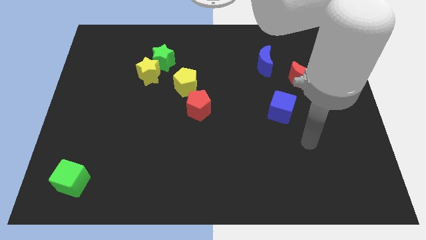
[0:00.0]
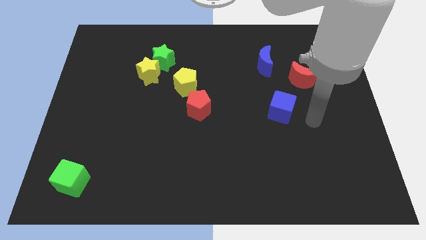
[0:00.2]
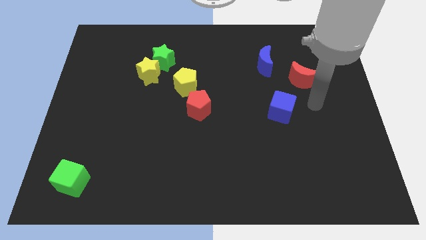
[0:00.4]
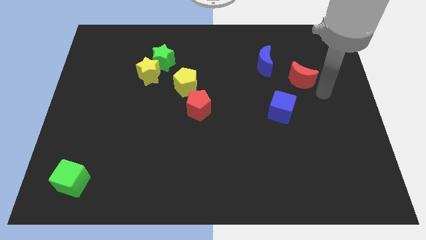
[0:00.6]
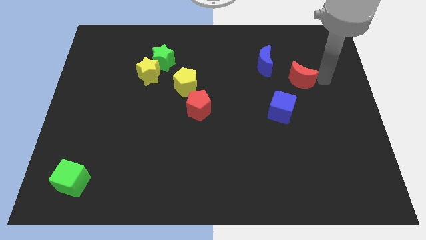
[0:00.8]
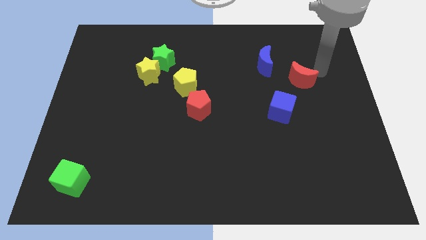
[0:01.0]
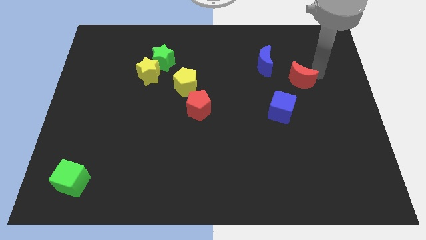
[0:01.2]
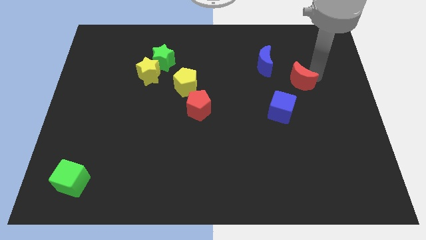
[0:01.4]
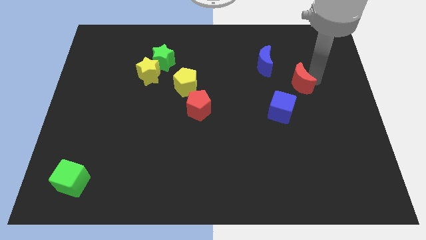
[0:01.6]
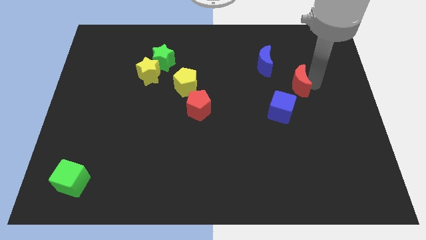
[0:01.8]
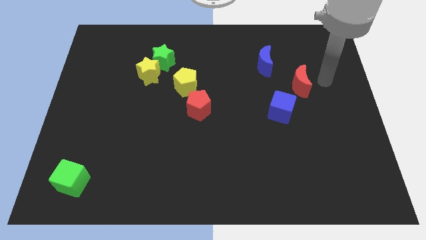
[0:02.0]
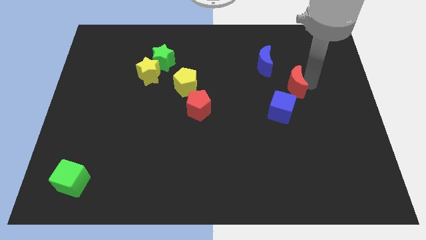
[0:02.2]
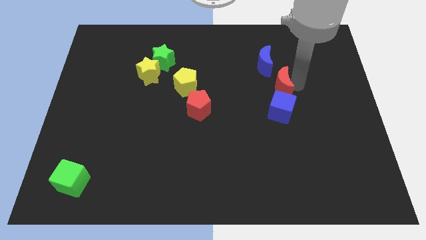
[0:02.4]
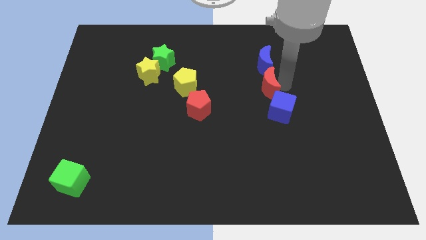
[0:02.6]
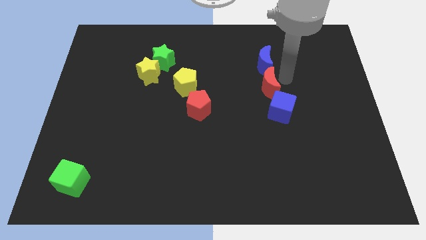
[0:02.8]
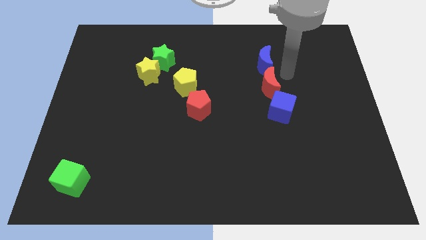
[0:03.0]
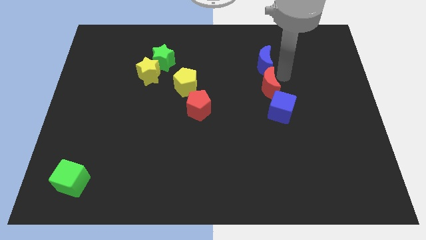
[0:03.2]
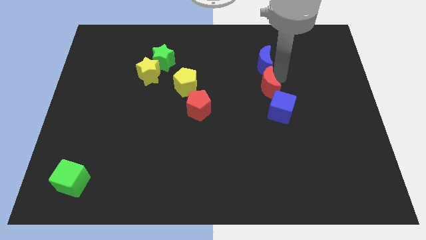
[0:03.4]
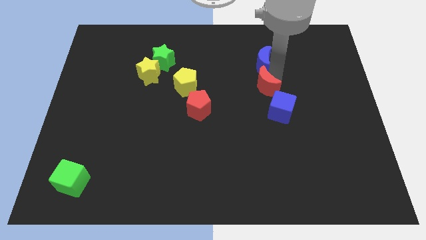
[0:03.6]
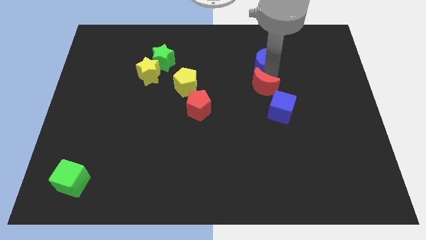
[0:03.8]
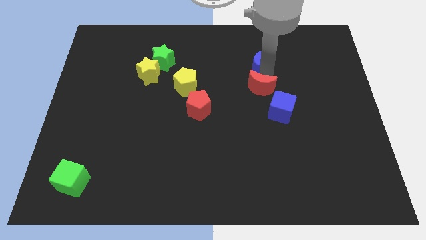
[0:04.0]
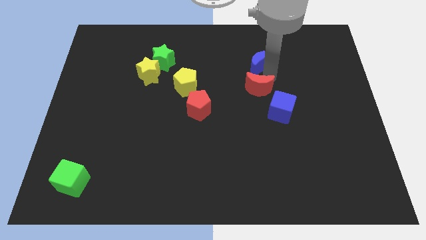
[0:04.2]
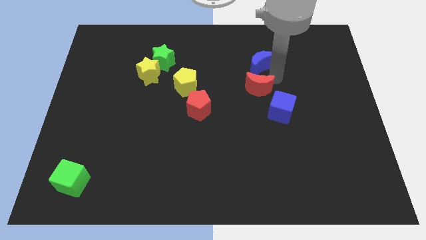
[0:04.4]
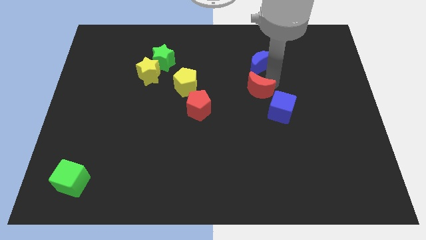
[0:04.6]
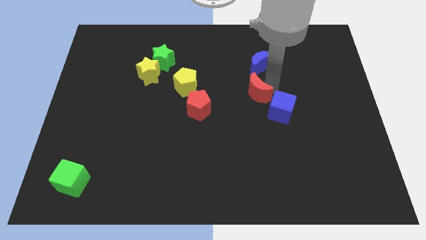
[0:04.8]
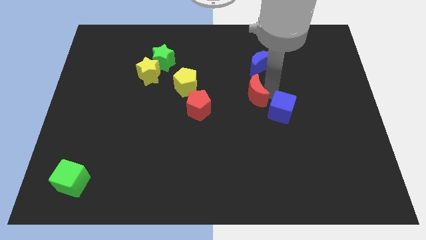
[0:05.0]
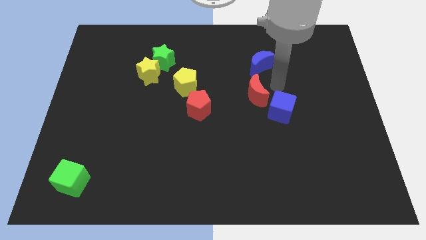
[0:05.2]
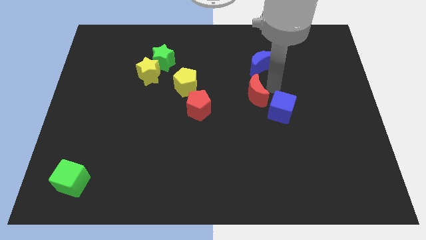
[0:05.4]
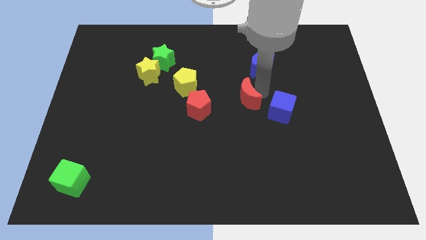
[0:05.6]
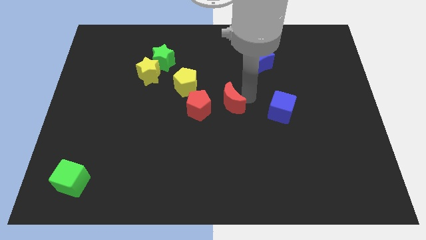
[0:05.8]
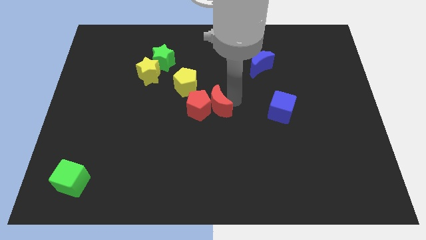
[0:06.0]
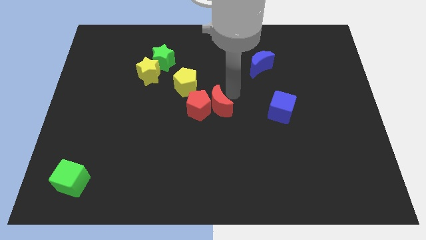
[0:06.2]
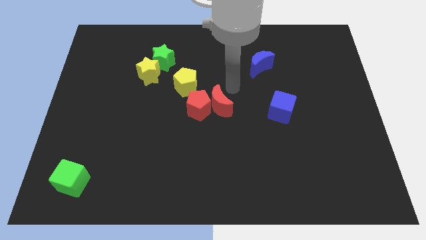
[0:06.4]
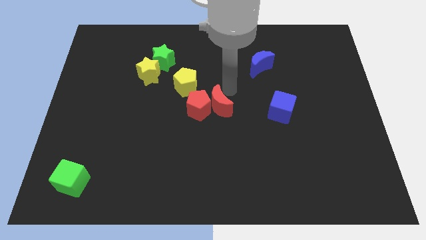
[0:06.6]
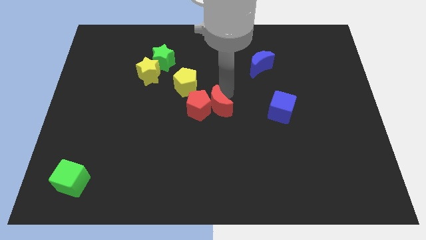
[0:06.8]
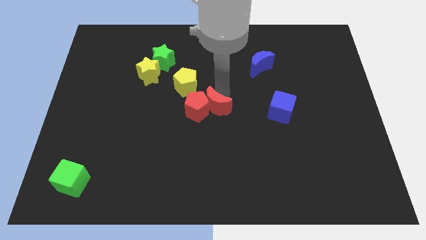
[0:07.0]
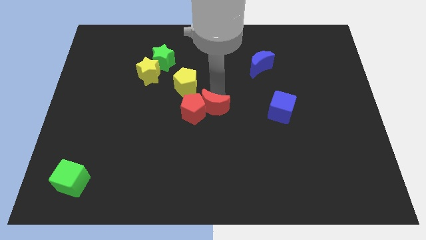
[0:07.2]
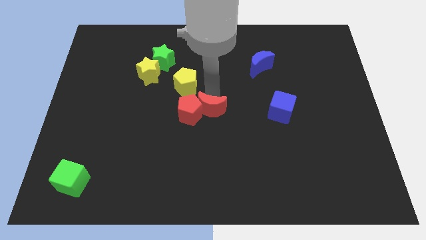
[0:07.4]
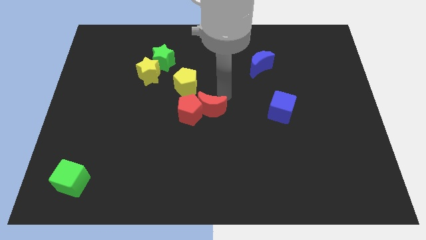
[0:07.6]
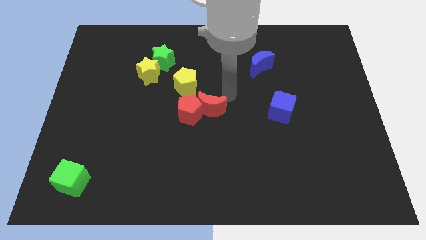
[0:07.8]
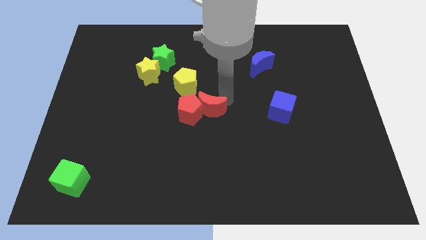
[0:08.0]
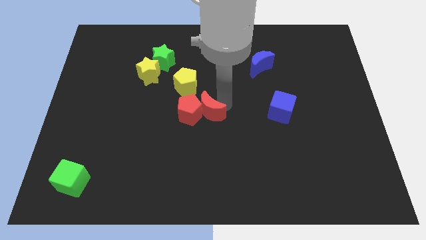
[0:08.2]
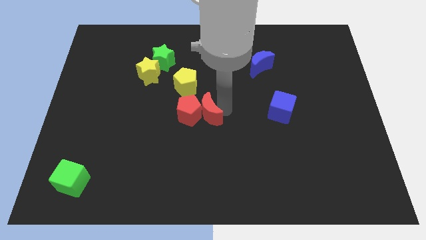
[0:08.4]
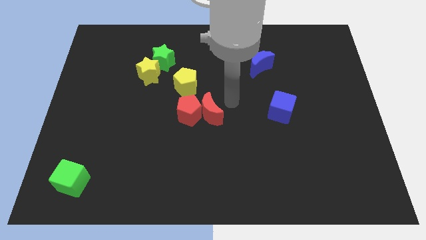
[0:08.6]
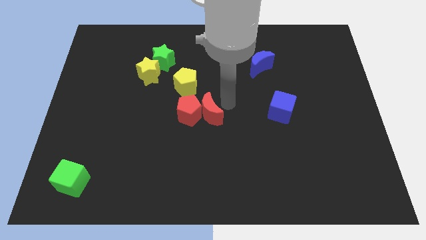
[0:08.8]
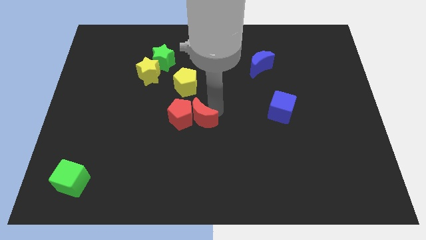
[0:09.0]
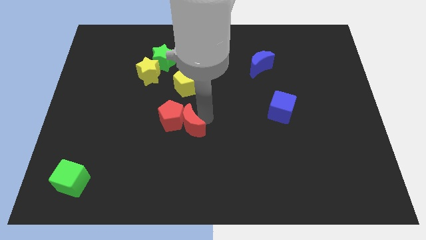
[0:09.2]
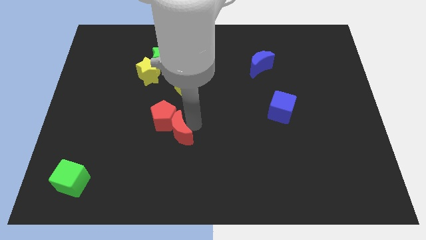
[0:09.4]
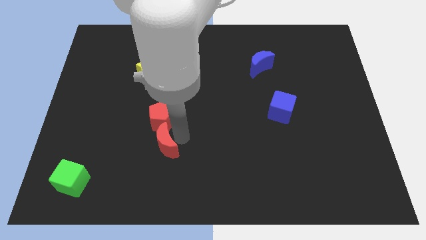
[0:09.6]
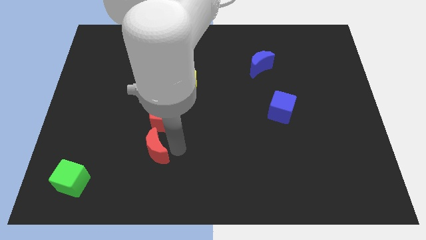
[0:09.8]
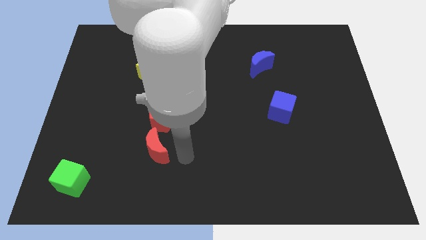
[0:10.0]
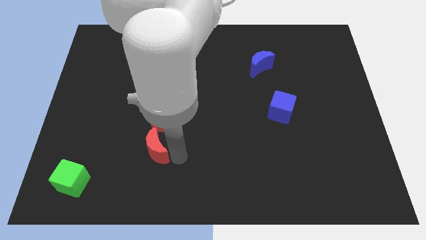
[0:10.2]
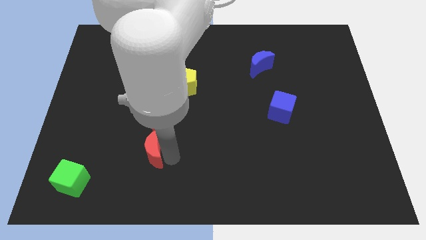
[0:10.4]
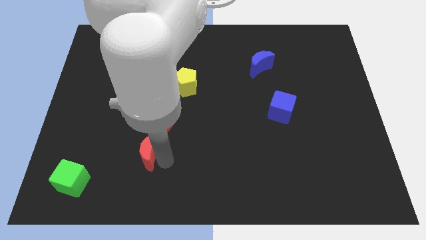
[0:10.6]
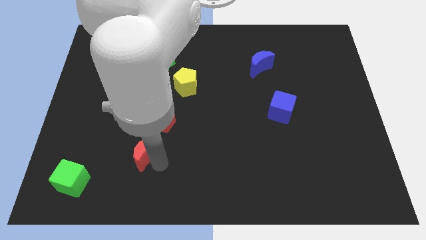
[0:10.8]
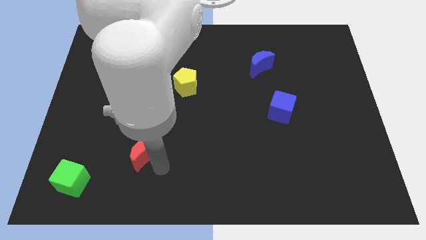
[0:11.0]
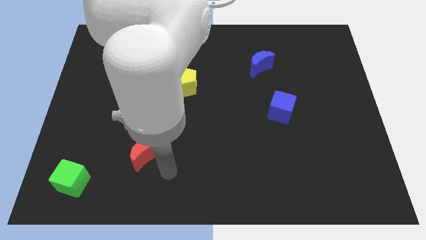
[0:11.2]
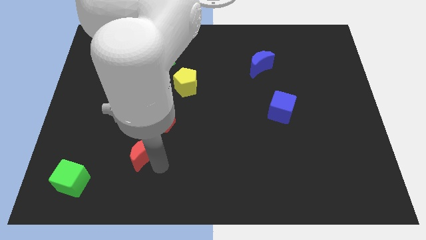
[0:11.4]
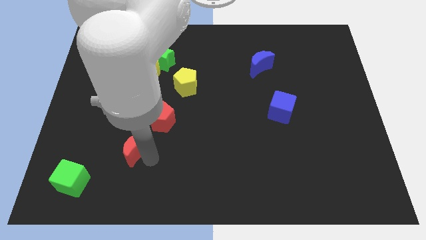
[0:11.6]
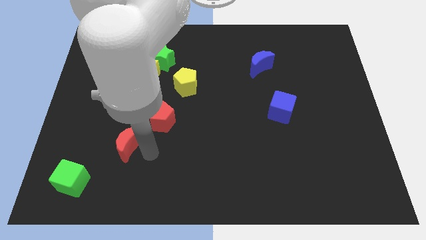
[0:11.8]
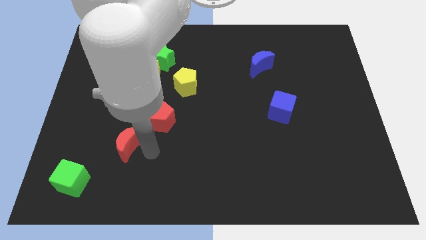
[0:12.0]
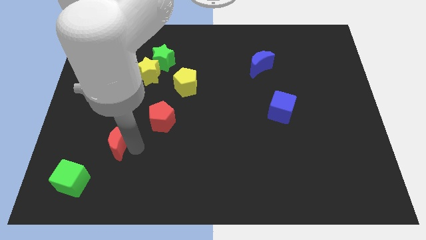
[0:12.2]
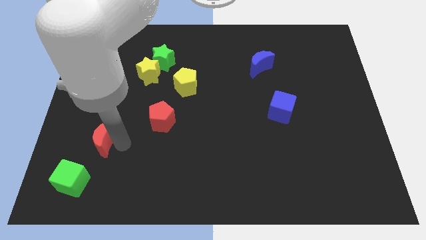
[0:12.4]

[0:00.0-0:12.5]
push the red moon above the green cube

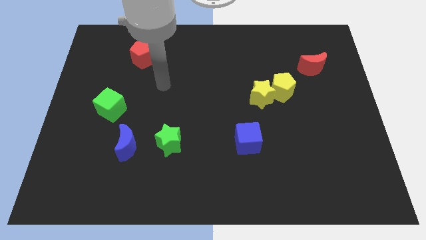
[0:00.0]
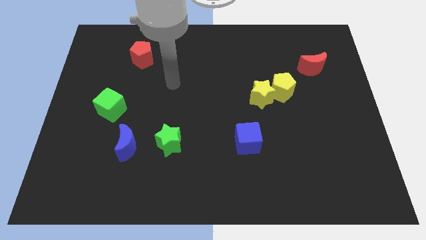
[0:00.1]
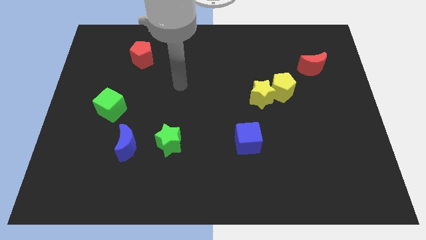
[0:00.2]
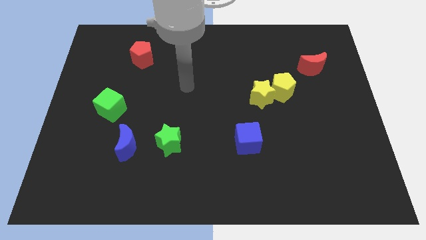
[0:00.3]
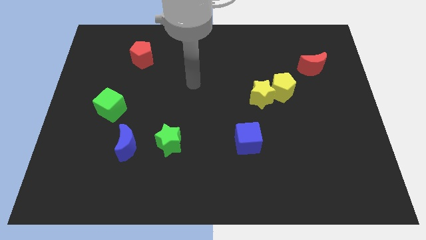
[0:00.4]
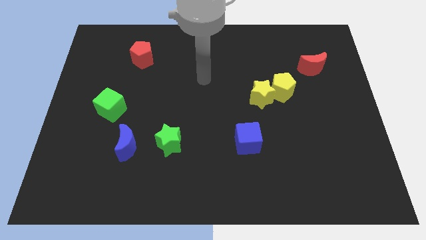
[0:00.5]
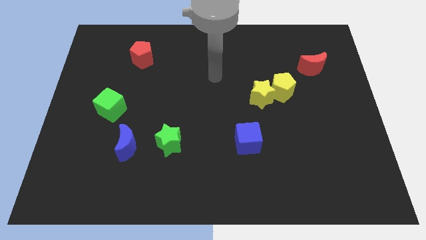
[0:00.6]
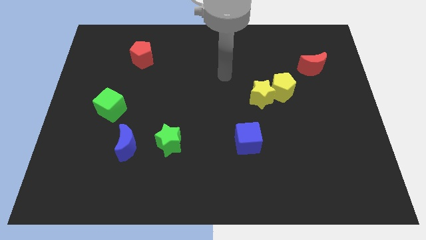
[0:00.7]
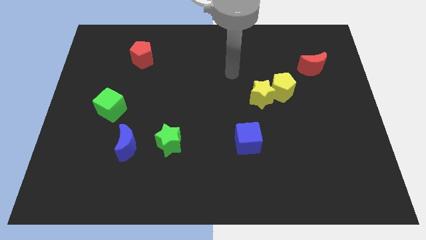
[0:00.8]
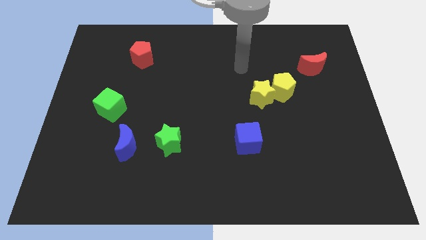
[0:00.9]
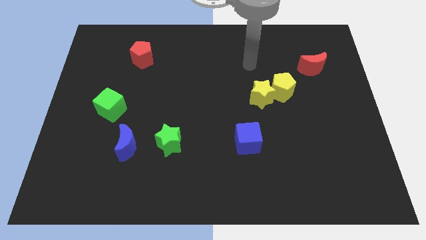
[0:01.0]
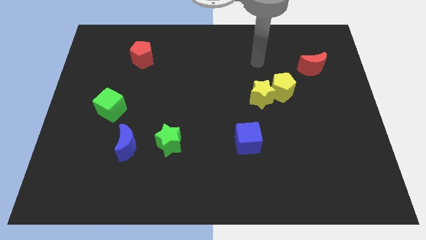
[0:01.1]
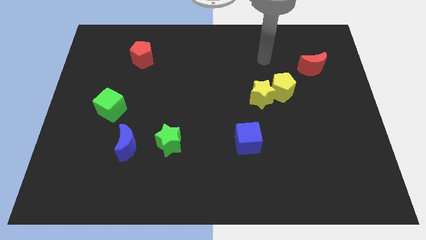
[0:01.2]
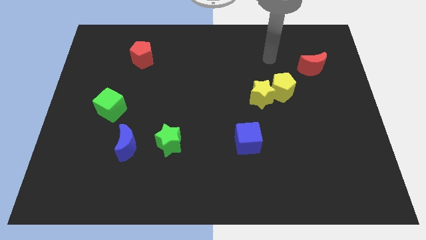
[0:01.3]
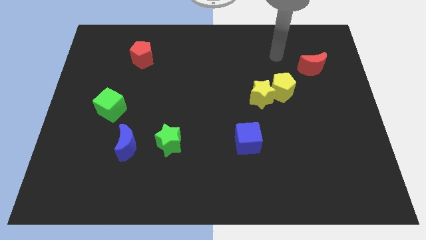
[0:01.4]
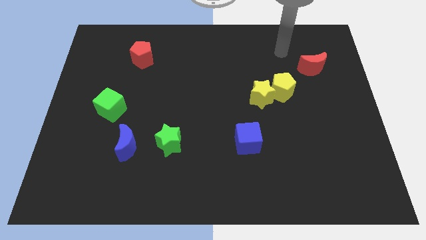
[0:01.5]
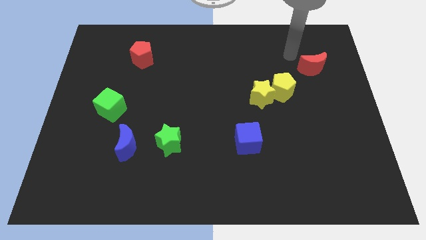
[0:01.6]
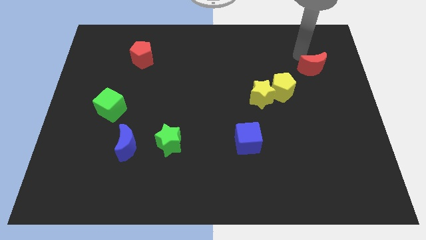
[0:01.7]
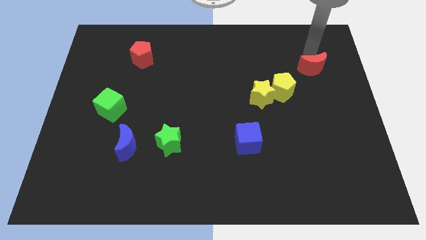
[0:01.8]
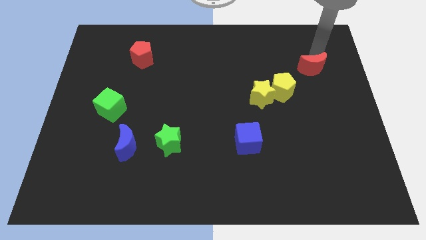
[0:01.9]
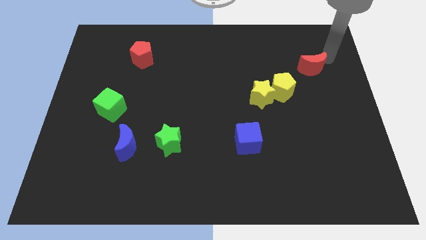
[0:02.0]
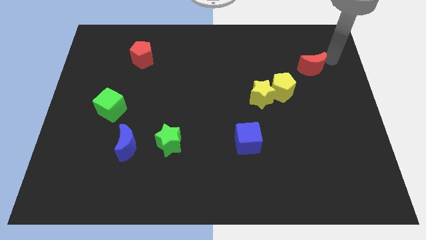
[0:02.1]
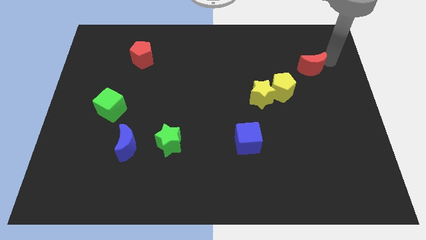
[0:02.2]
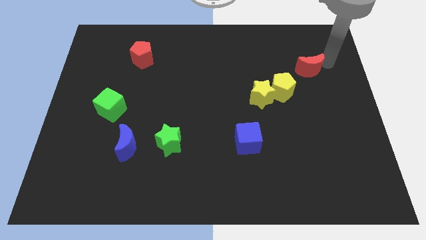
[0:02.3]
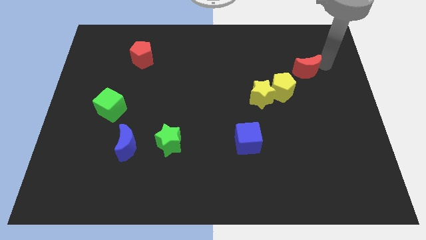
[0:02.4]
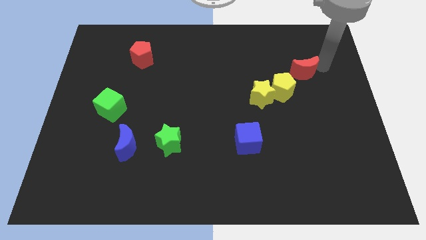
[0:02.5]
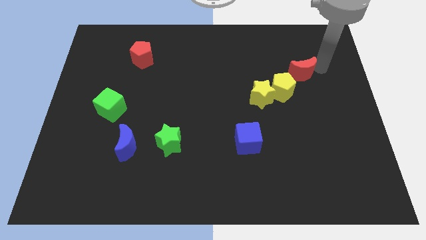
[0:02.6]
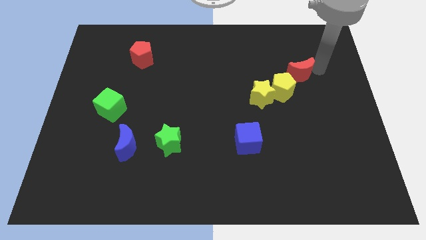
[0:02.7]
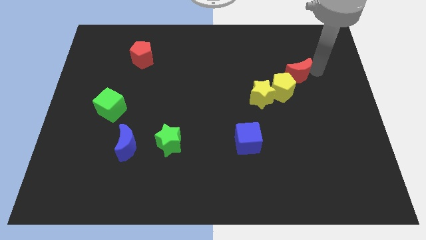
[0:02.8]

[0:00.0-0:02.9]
move the red moon to the top right side of the yellow star
